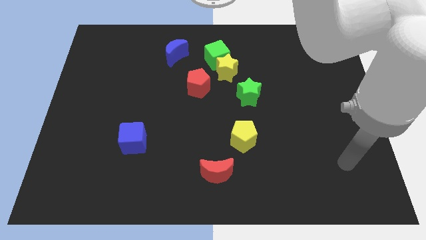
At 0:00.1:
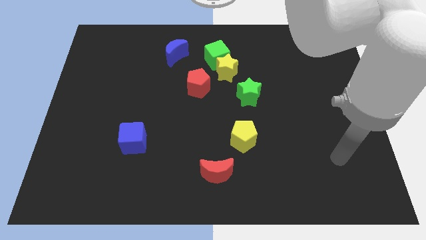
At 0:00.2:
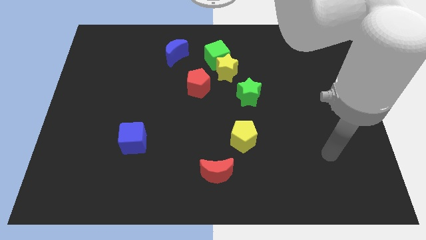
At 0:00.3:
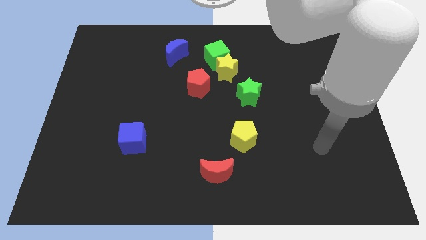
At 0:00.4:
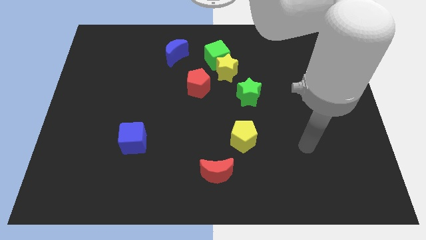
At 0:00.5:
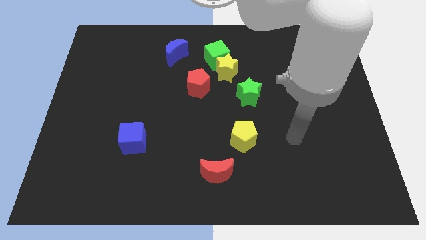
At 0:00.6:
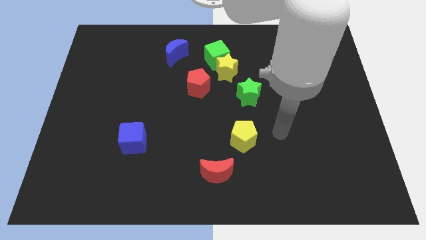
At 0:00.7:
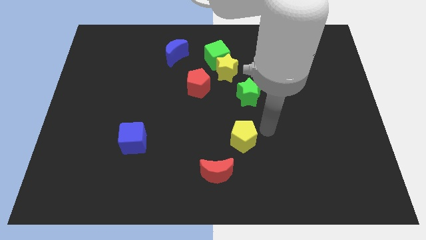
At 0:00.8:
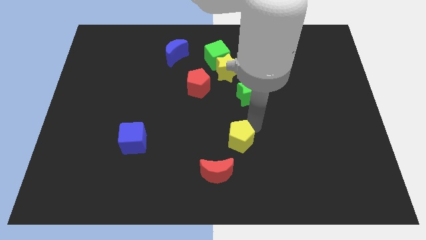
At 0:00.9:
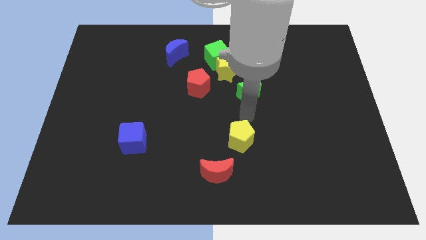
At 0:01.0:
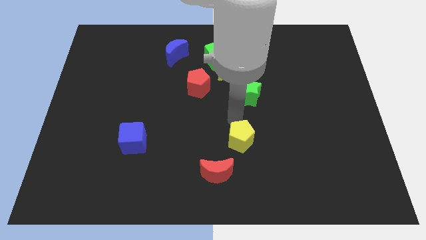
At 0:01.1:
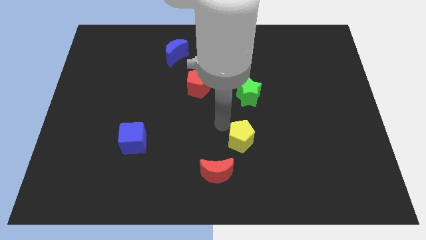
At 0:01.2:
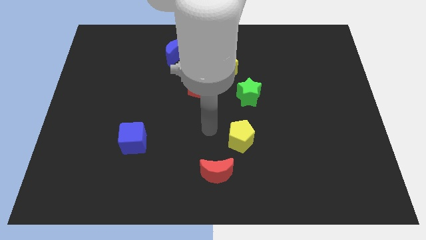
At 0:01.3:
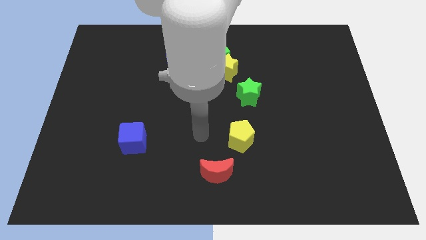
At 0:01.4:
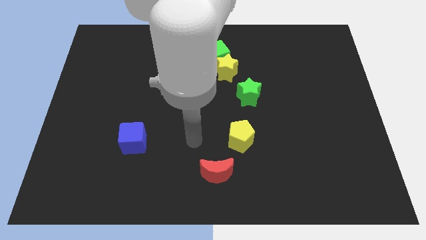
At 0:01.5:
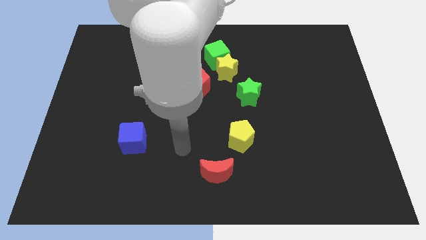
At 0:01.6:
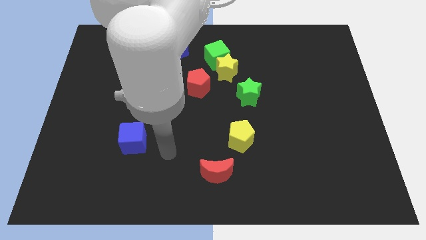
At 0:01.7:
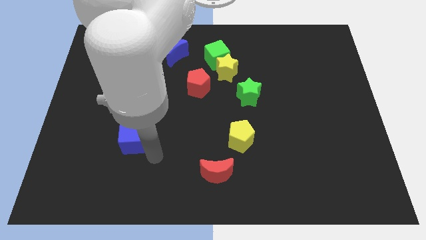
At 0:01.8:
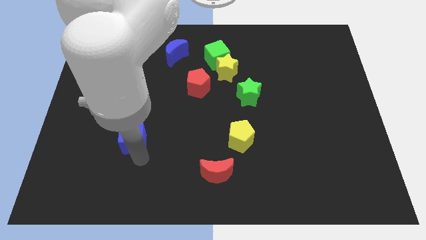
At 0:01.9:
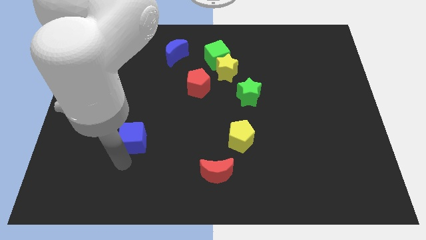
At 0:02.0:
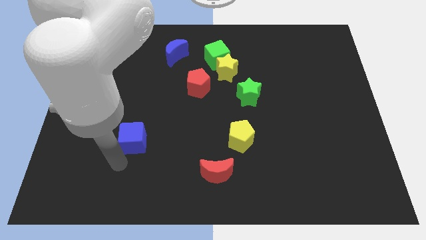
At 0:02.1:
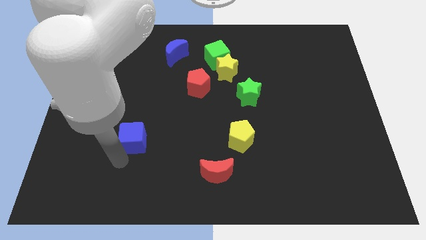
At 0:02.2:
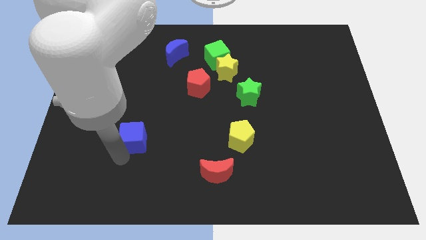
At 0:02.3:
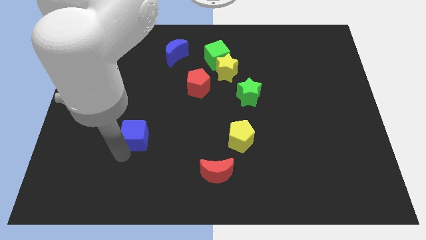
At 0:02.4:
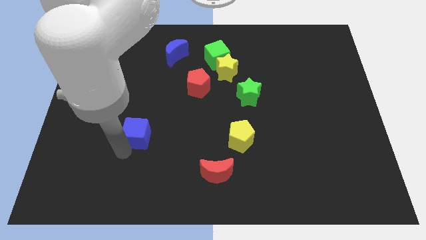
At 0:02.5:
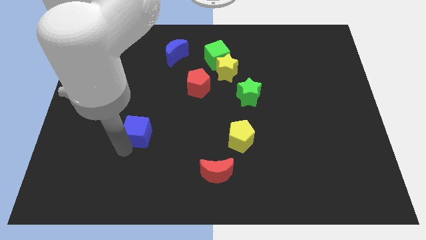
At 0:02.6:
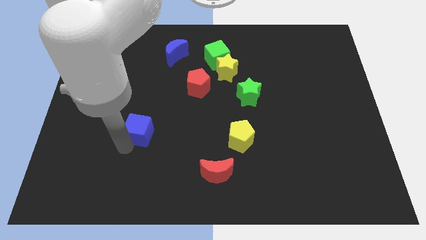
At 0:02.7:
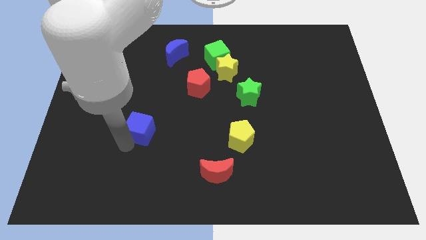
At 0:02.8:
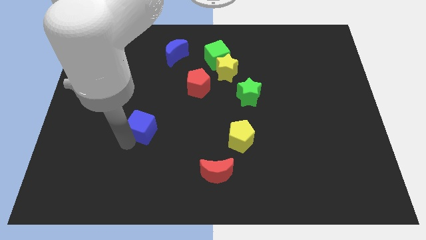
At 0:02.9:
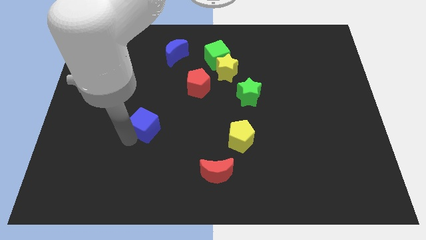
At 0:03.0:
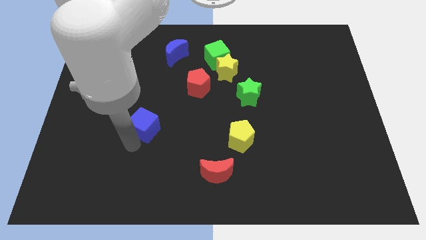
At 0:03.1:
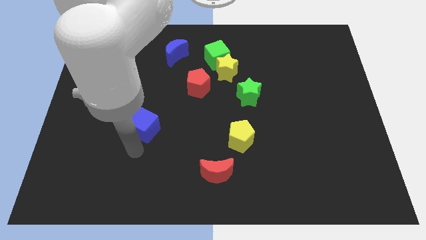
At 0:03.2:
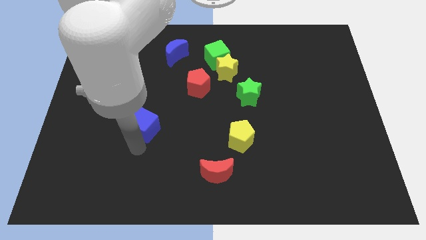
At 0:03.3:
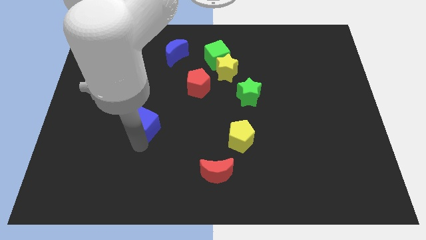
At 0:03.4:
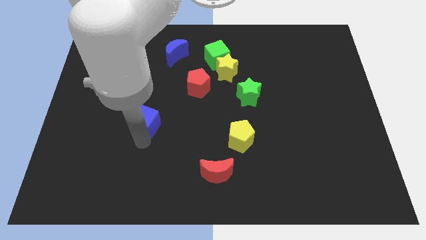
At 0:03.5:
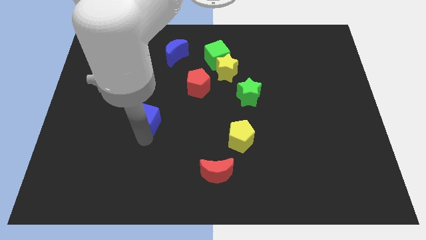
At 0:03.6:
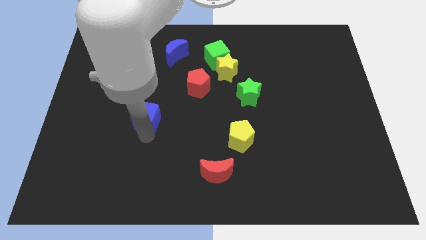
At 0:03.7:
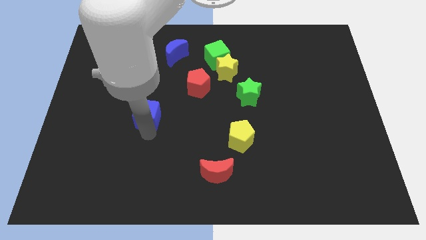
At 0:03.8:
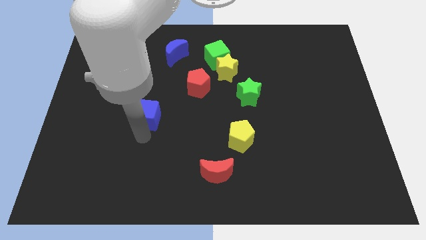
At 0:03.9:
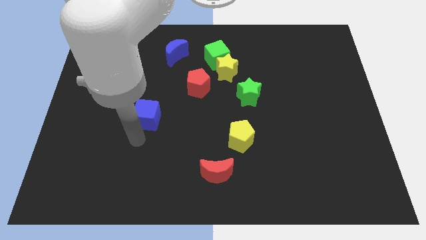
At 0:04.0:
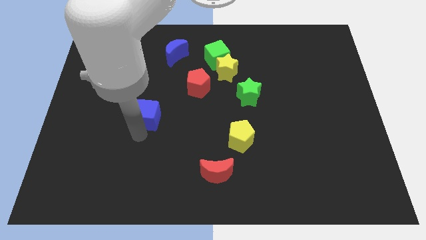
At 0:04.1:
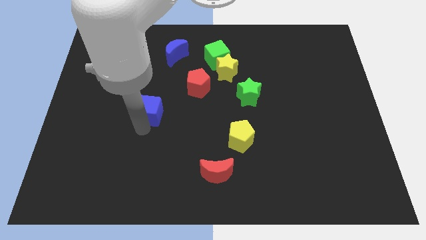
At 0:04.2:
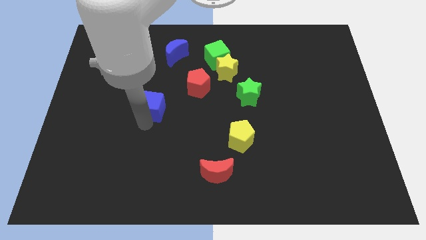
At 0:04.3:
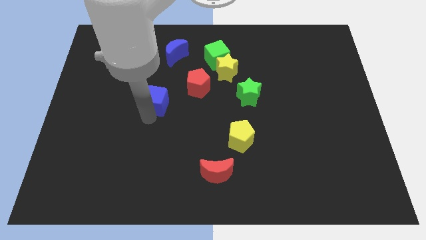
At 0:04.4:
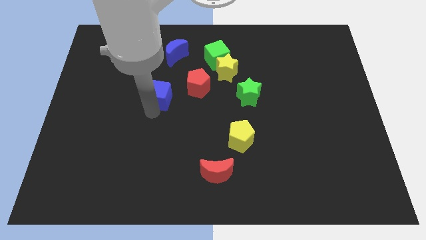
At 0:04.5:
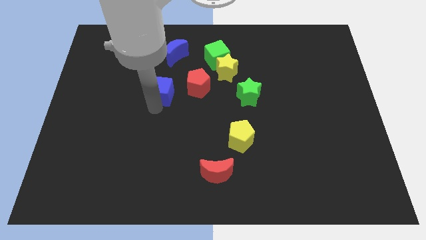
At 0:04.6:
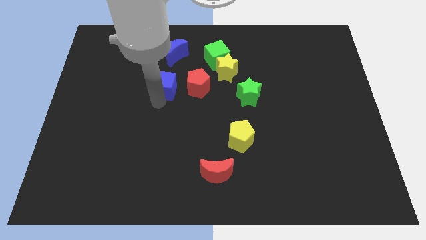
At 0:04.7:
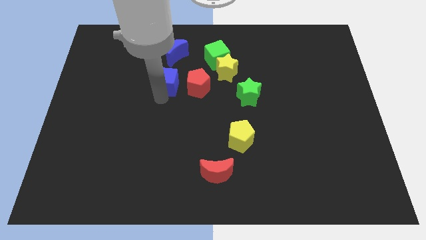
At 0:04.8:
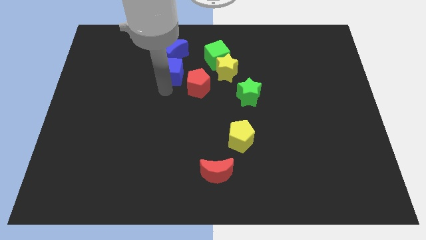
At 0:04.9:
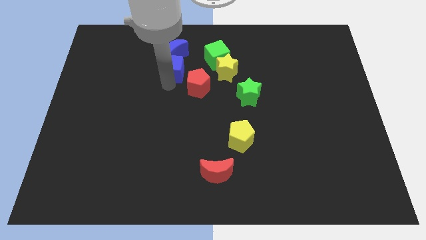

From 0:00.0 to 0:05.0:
slide the blue cube close to the blue moon

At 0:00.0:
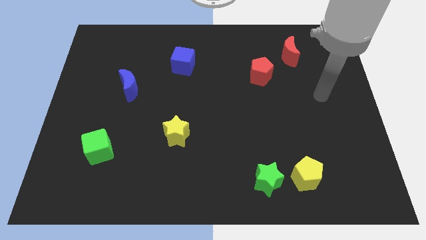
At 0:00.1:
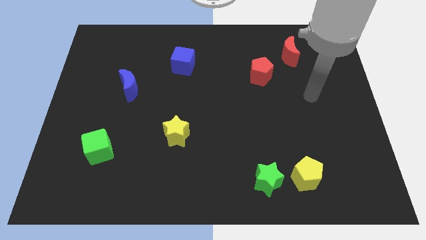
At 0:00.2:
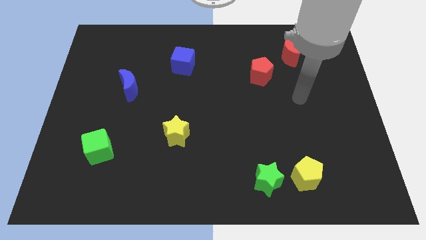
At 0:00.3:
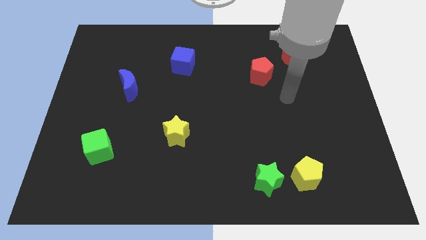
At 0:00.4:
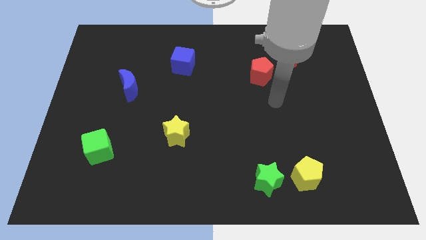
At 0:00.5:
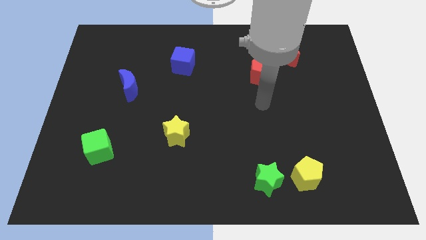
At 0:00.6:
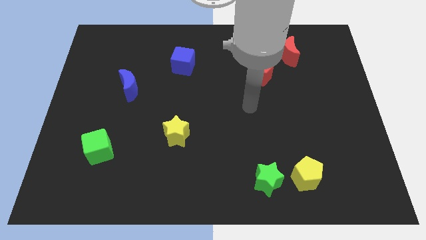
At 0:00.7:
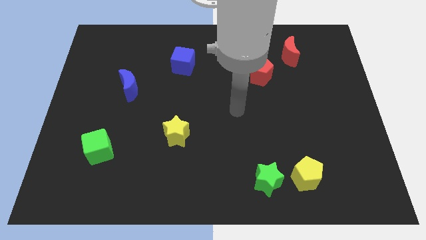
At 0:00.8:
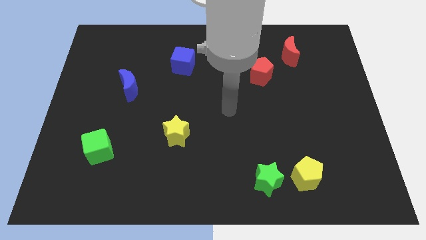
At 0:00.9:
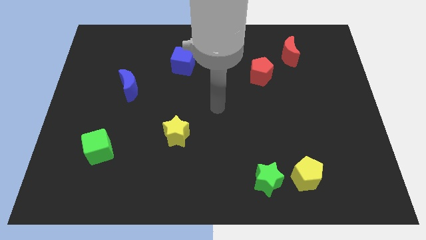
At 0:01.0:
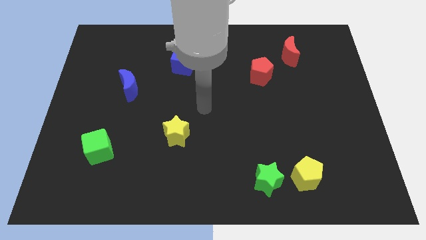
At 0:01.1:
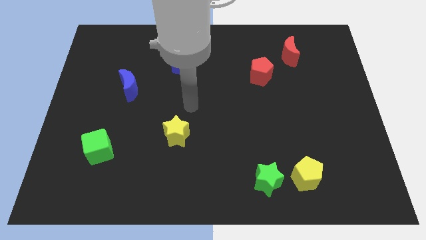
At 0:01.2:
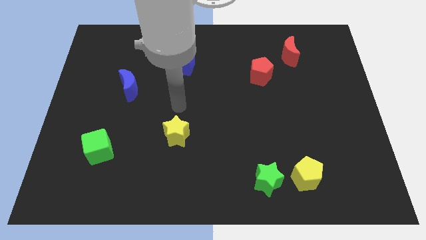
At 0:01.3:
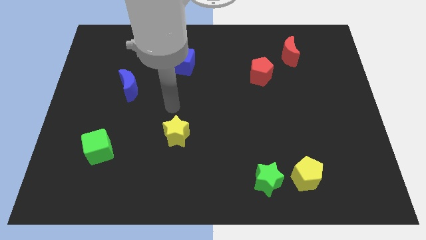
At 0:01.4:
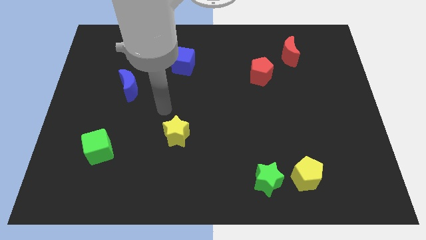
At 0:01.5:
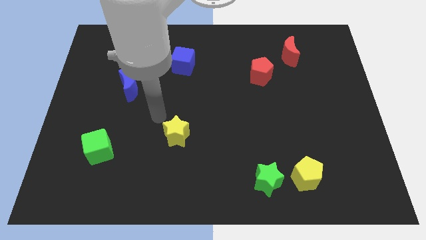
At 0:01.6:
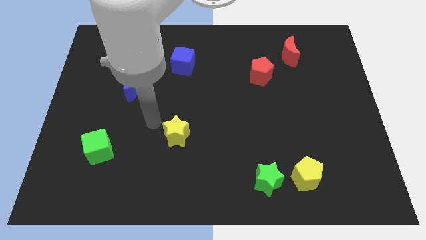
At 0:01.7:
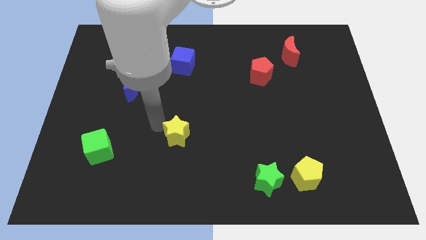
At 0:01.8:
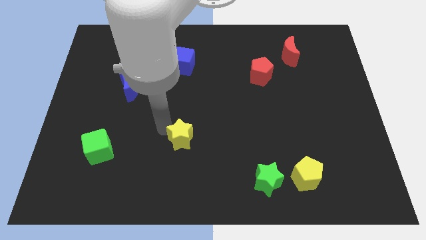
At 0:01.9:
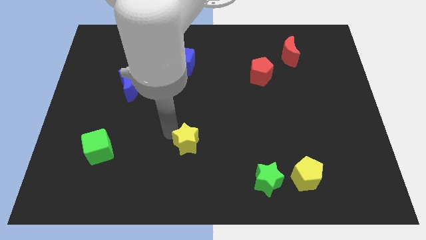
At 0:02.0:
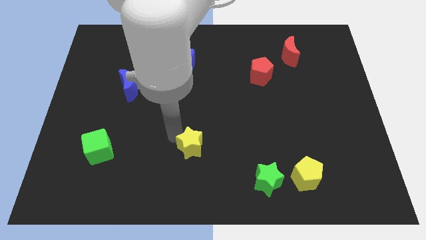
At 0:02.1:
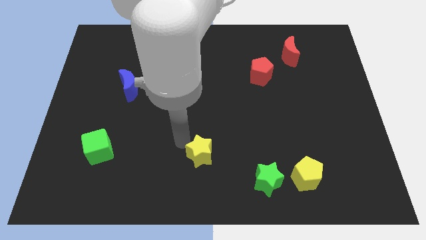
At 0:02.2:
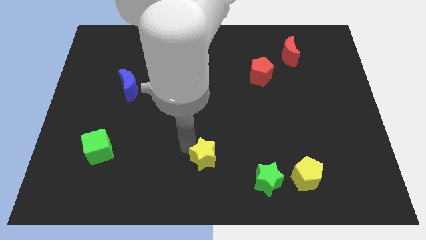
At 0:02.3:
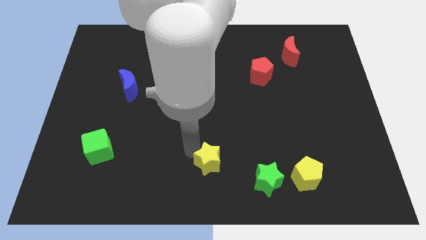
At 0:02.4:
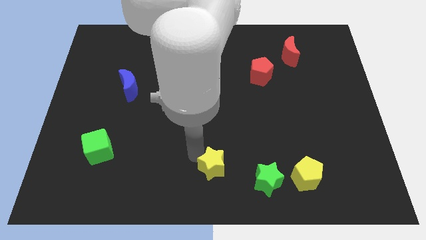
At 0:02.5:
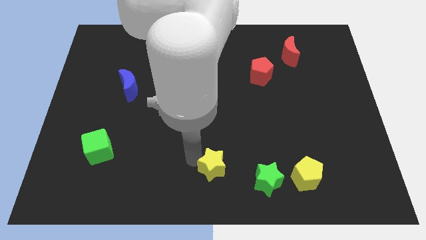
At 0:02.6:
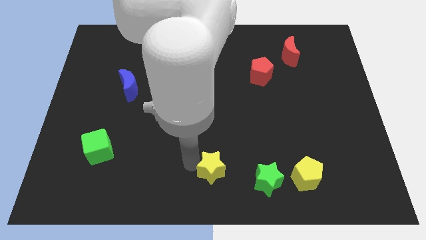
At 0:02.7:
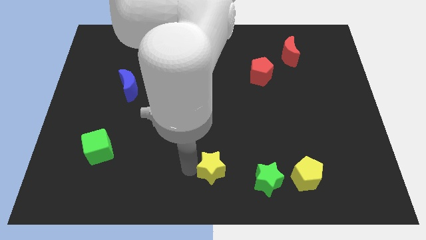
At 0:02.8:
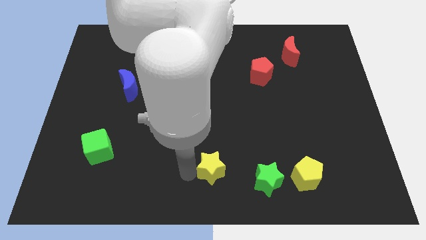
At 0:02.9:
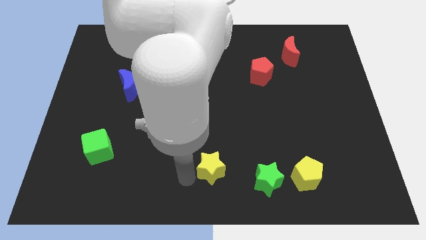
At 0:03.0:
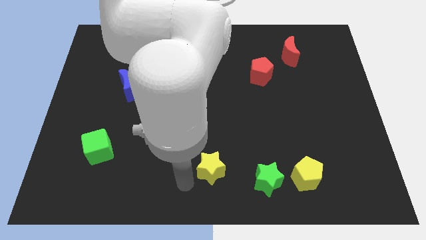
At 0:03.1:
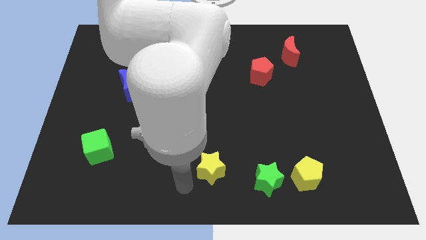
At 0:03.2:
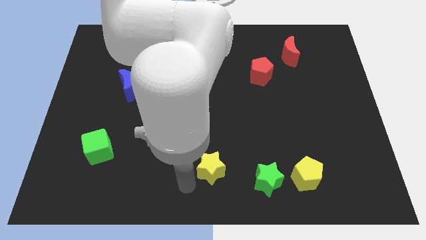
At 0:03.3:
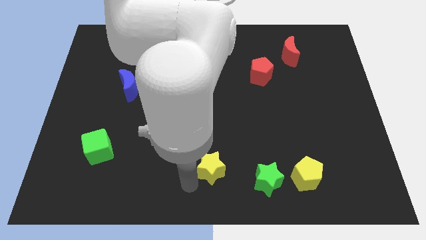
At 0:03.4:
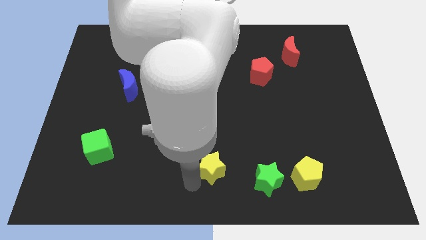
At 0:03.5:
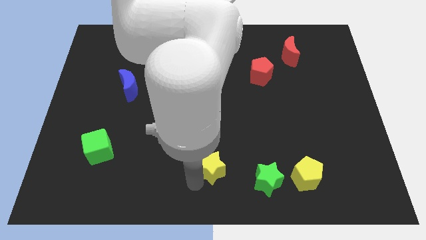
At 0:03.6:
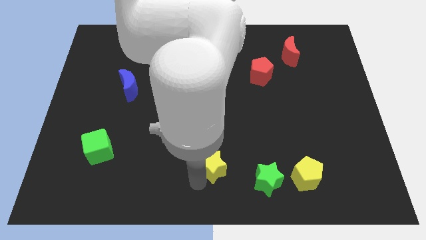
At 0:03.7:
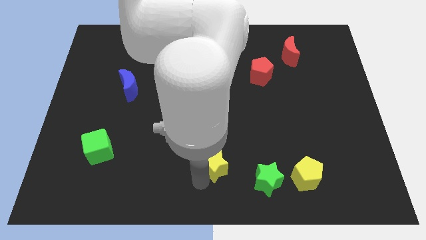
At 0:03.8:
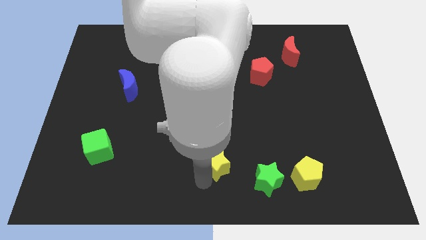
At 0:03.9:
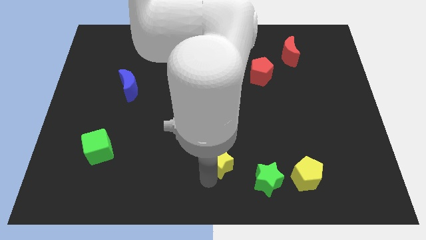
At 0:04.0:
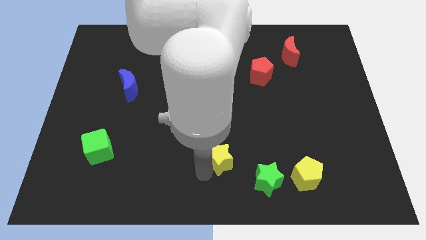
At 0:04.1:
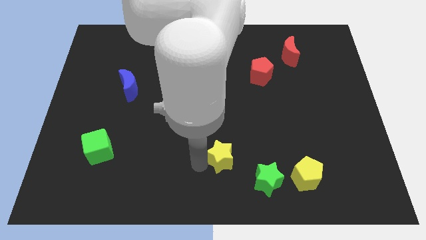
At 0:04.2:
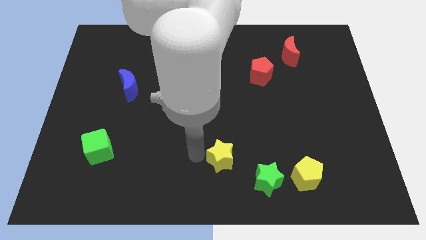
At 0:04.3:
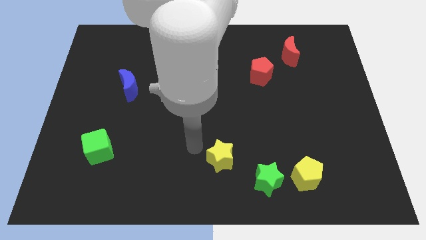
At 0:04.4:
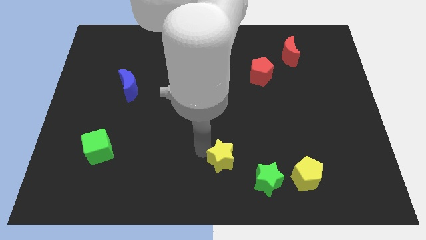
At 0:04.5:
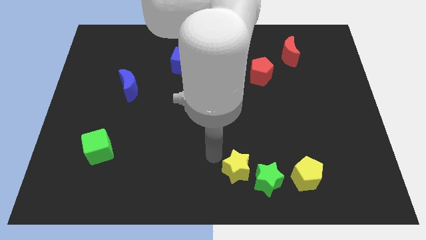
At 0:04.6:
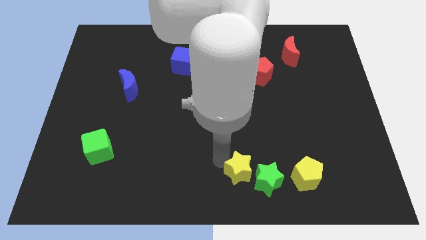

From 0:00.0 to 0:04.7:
move the yellow star to the green star
